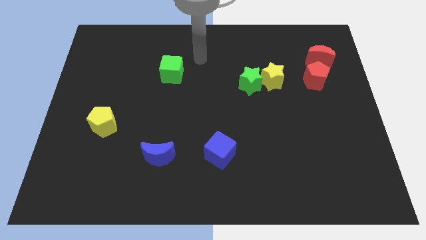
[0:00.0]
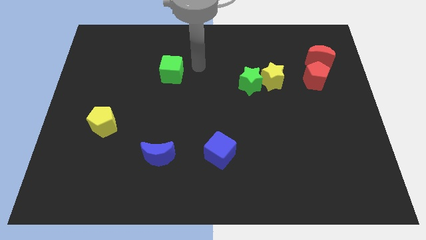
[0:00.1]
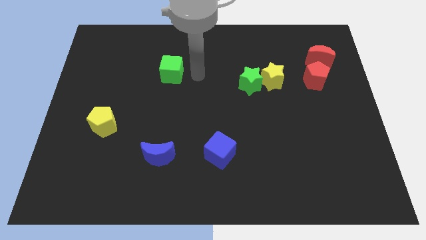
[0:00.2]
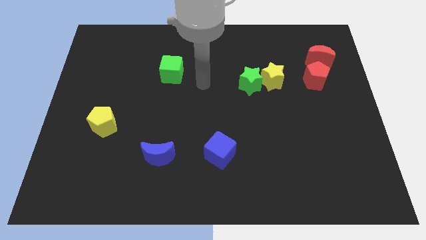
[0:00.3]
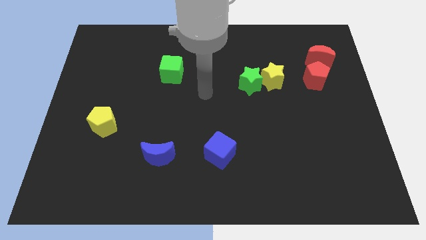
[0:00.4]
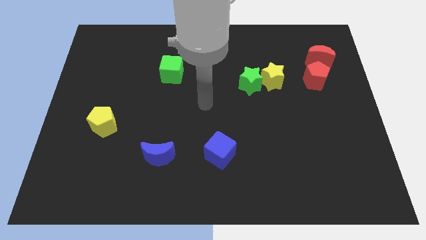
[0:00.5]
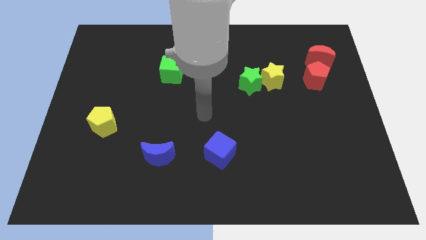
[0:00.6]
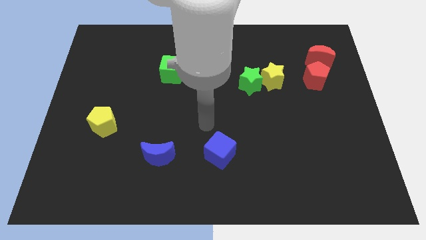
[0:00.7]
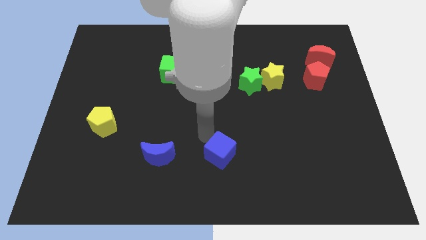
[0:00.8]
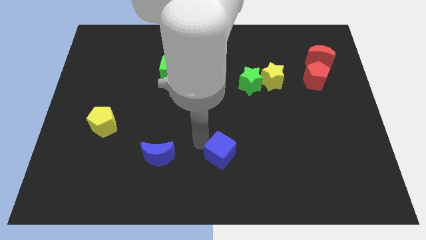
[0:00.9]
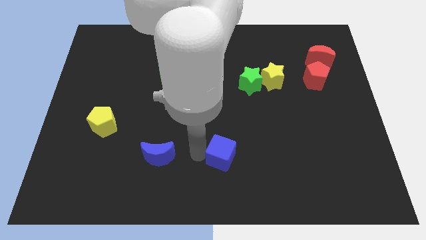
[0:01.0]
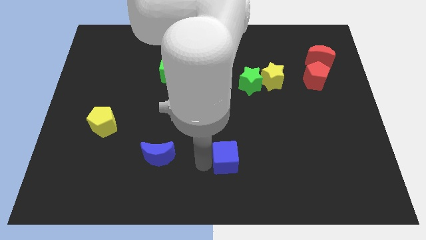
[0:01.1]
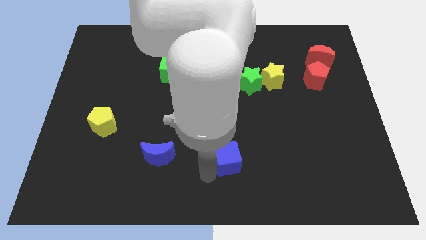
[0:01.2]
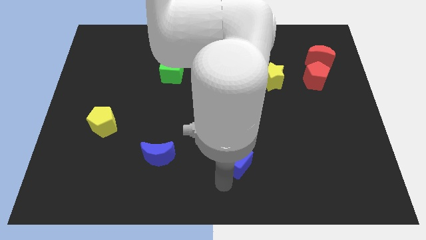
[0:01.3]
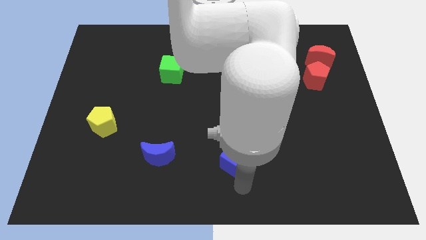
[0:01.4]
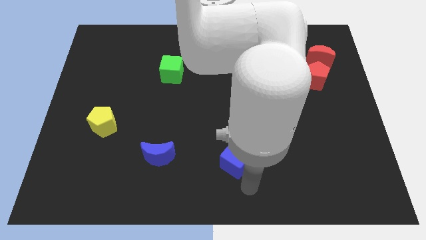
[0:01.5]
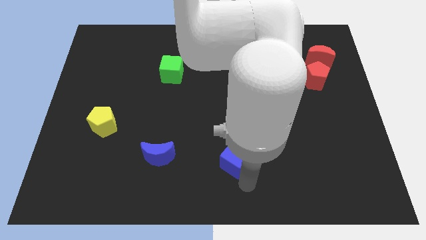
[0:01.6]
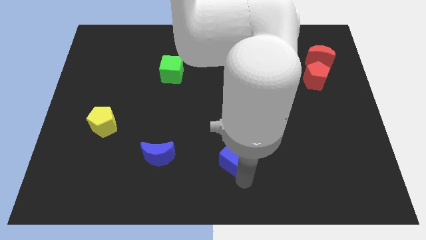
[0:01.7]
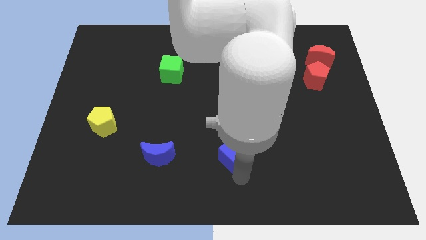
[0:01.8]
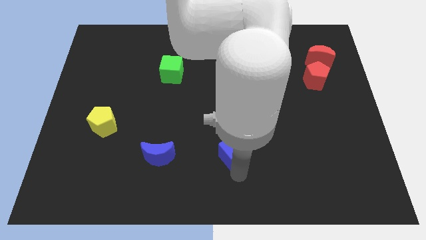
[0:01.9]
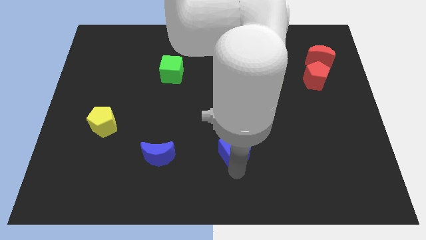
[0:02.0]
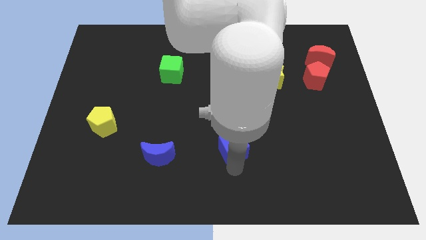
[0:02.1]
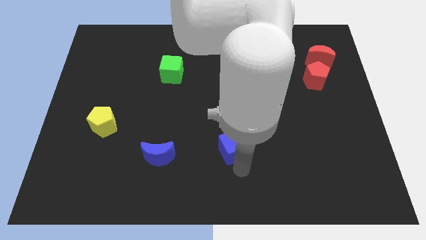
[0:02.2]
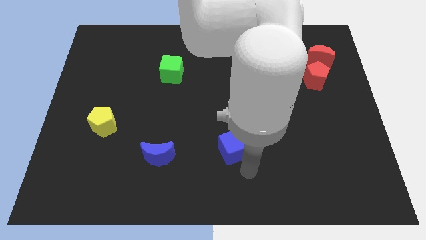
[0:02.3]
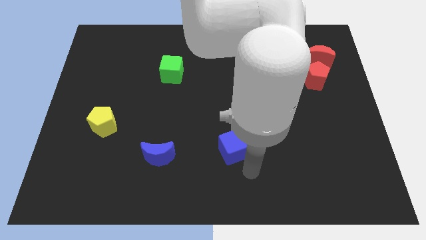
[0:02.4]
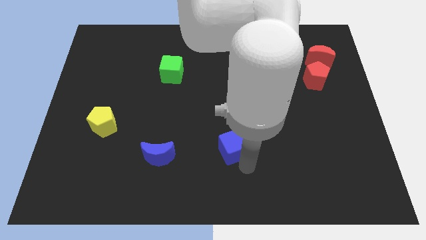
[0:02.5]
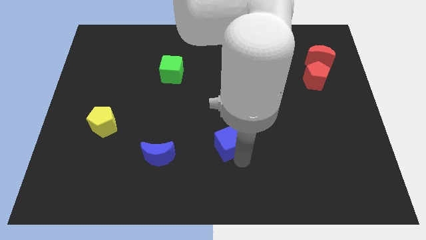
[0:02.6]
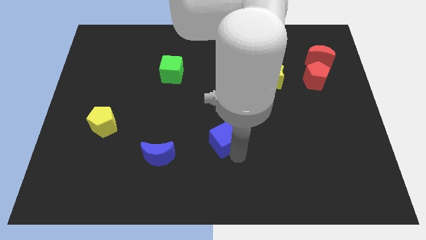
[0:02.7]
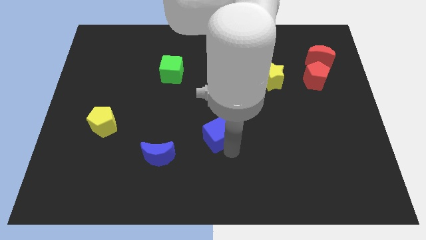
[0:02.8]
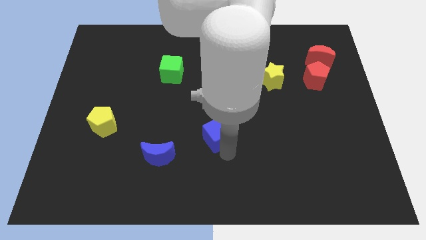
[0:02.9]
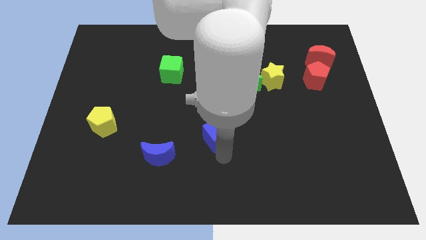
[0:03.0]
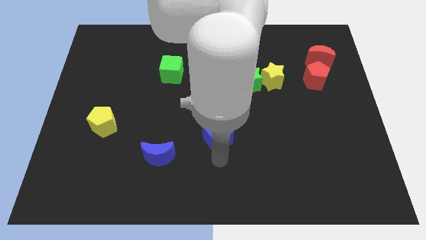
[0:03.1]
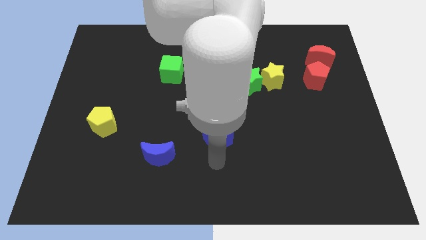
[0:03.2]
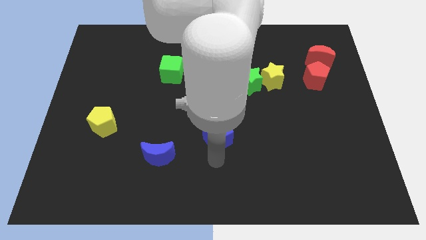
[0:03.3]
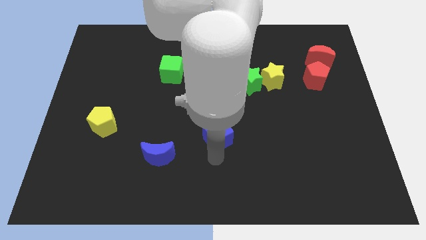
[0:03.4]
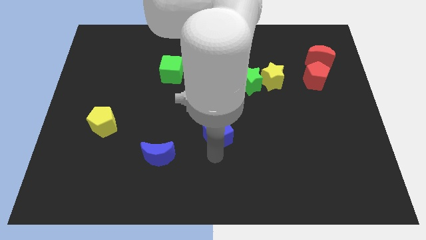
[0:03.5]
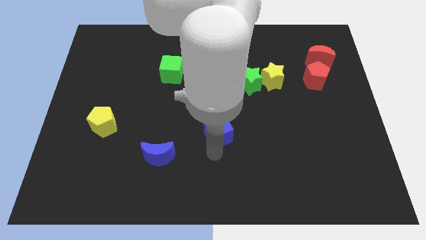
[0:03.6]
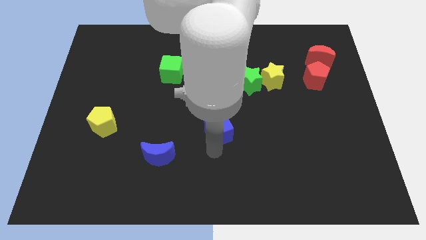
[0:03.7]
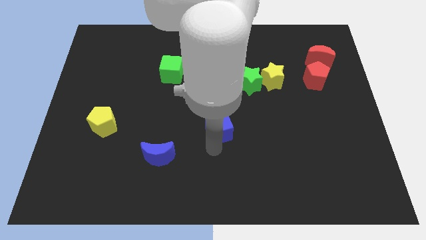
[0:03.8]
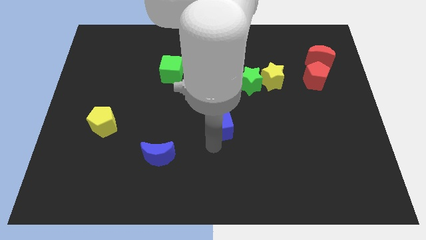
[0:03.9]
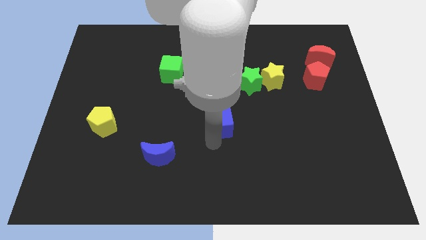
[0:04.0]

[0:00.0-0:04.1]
move the blue cube up a little

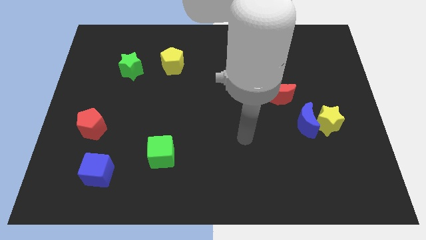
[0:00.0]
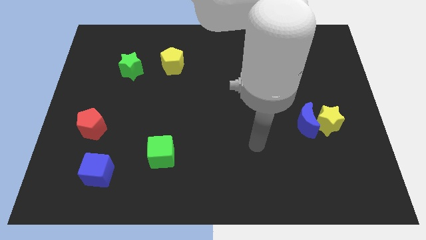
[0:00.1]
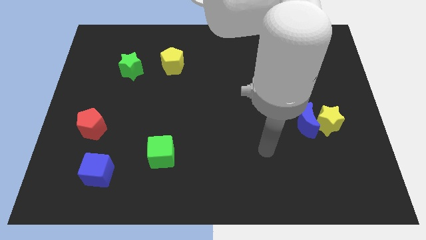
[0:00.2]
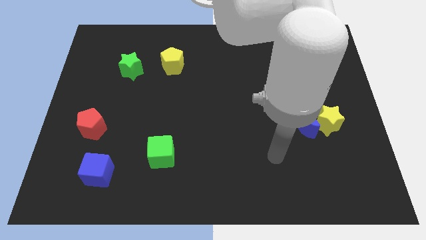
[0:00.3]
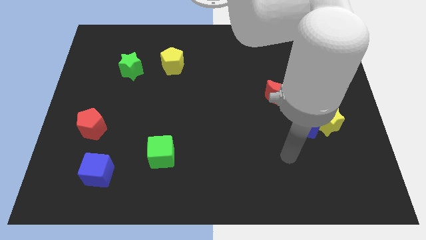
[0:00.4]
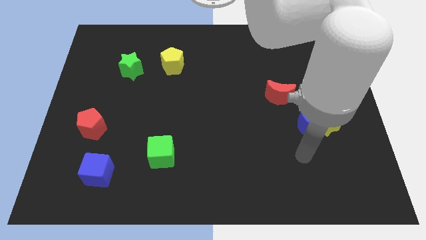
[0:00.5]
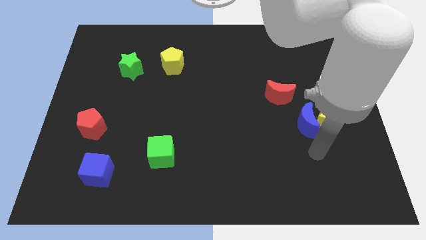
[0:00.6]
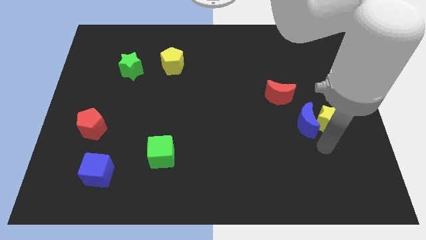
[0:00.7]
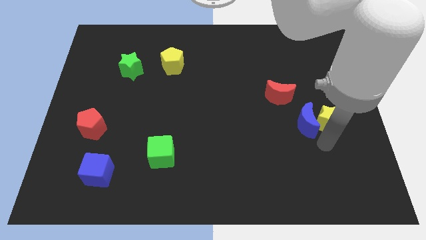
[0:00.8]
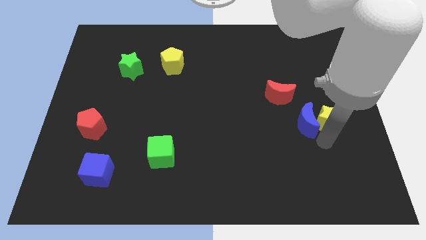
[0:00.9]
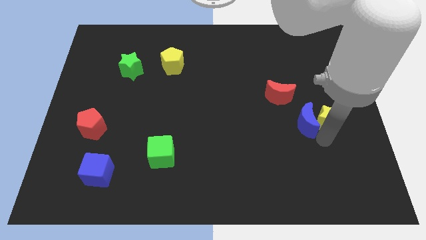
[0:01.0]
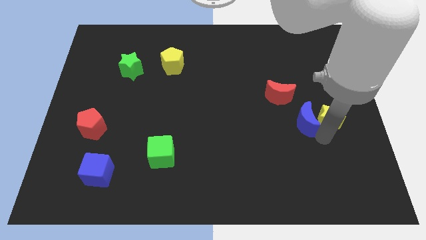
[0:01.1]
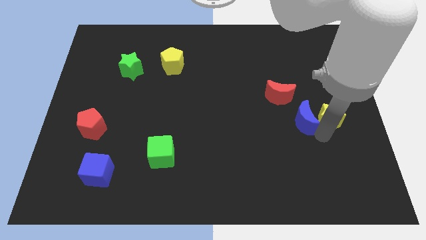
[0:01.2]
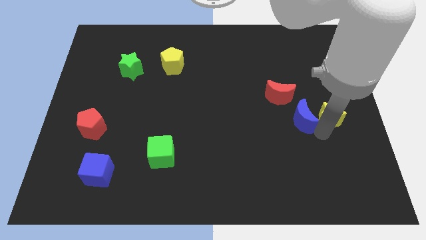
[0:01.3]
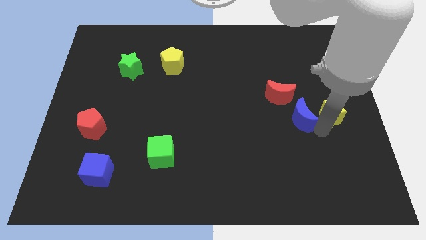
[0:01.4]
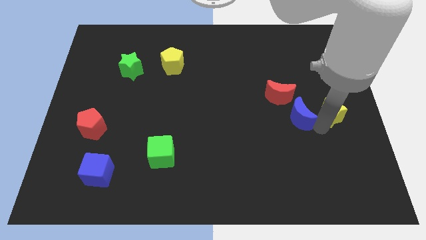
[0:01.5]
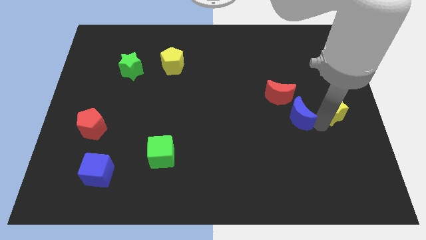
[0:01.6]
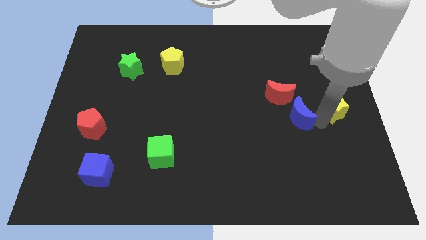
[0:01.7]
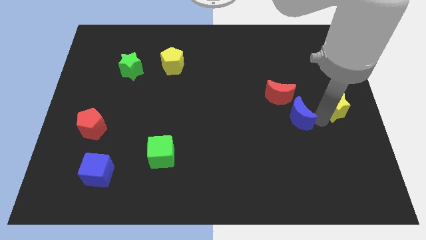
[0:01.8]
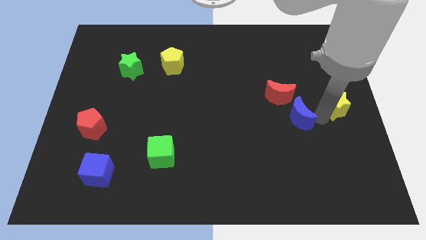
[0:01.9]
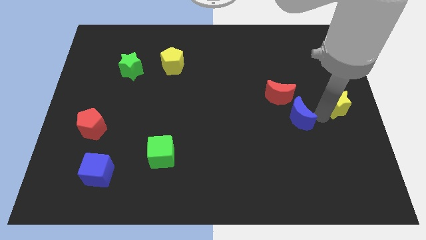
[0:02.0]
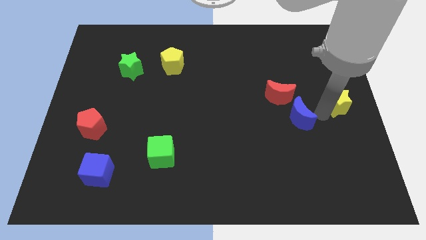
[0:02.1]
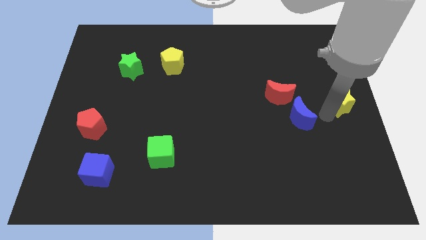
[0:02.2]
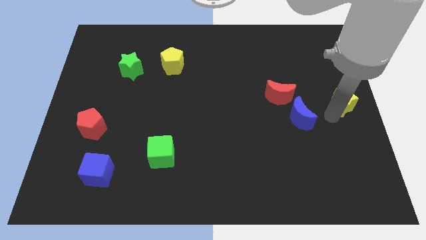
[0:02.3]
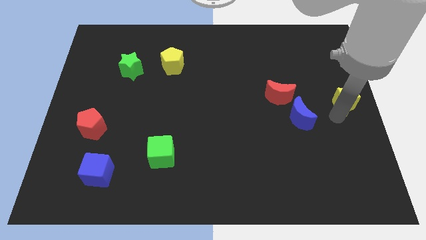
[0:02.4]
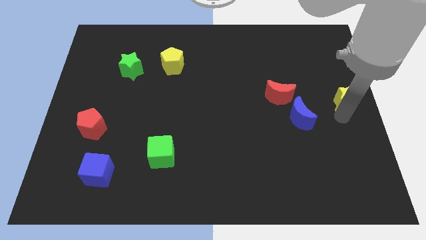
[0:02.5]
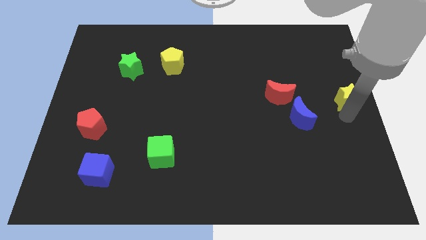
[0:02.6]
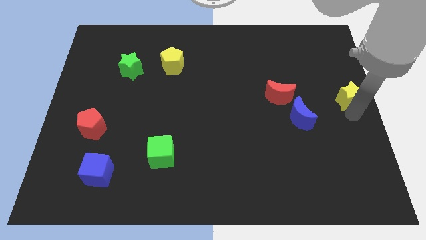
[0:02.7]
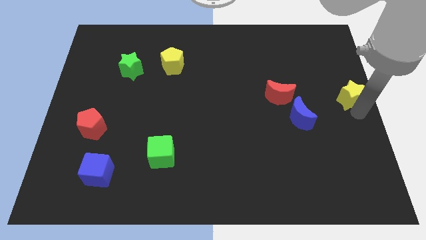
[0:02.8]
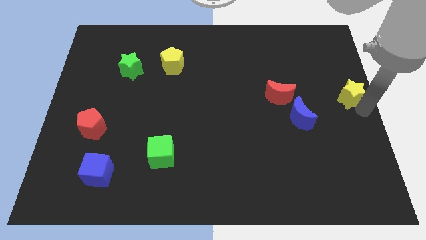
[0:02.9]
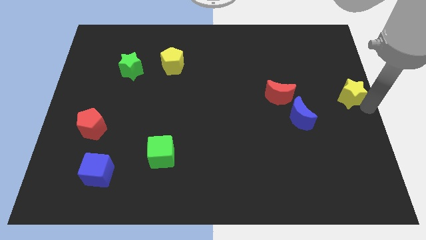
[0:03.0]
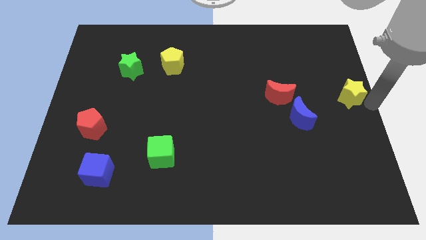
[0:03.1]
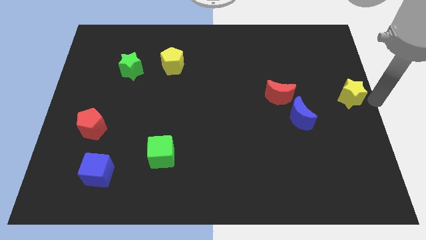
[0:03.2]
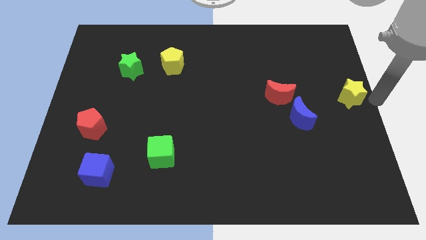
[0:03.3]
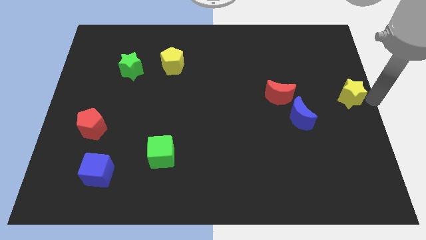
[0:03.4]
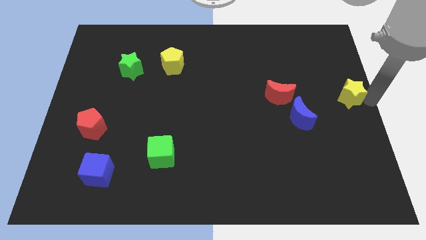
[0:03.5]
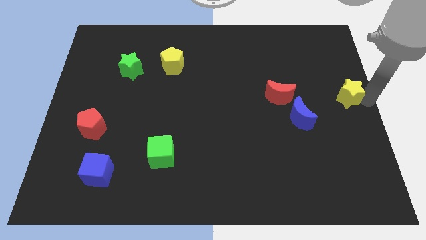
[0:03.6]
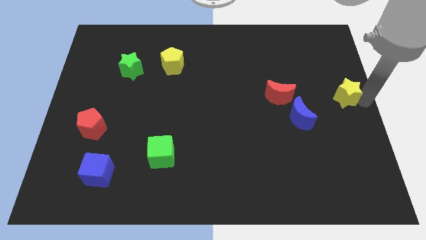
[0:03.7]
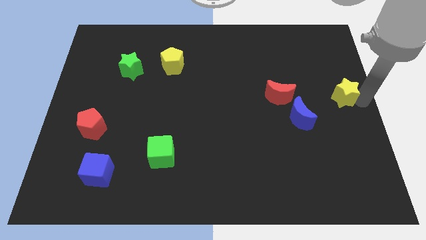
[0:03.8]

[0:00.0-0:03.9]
slightly slide the yellow star upwards
